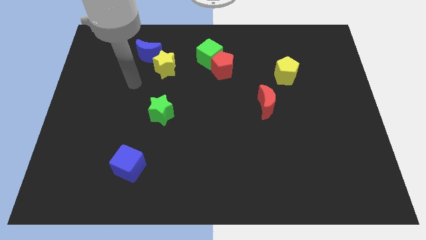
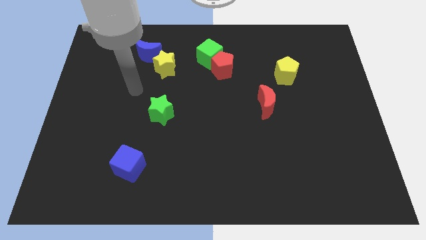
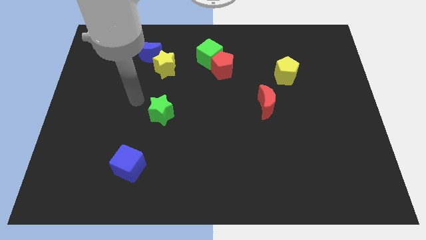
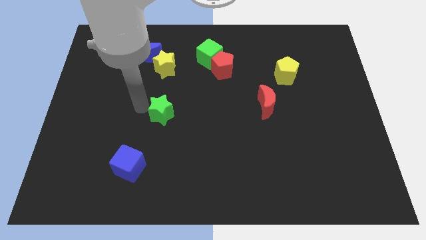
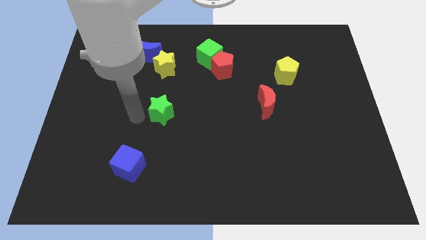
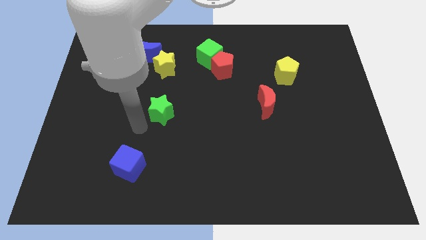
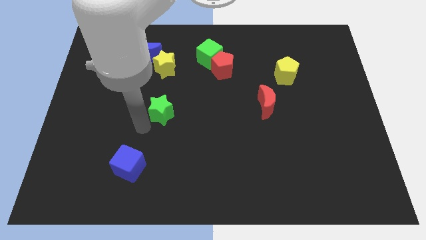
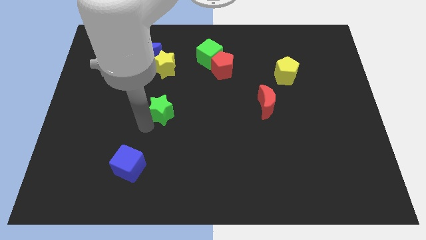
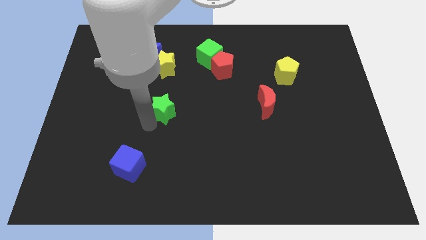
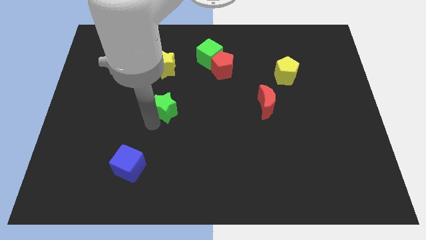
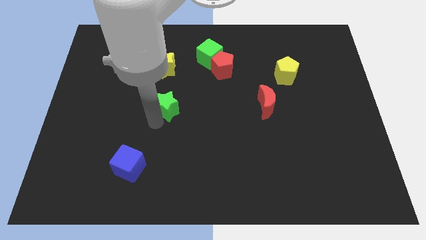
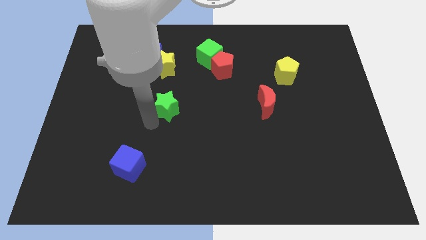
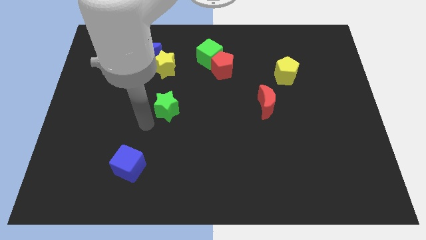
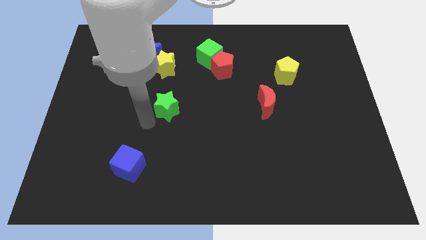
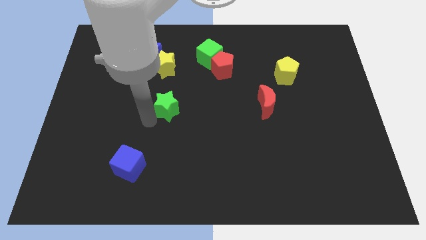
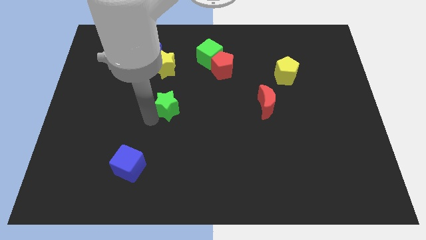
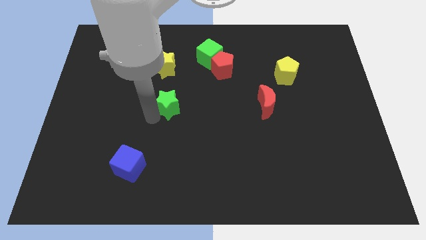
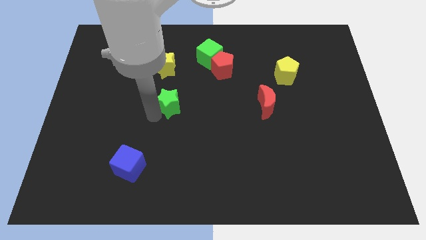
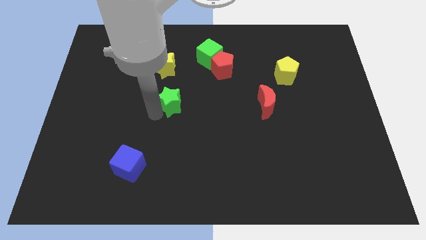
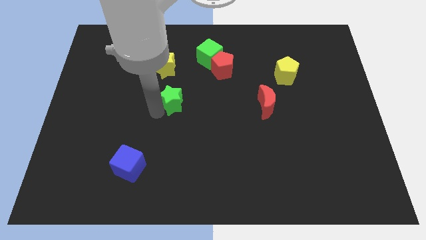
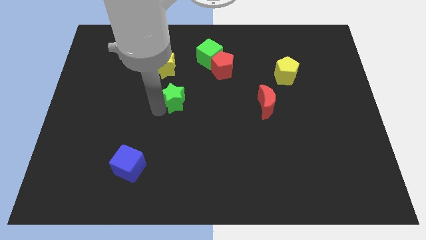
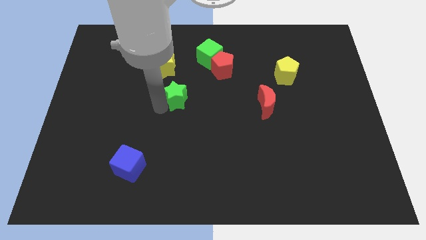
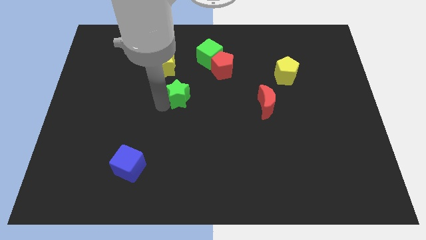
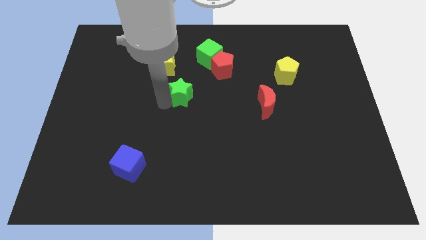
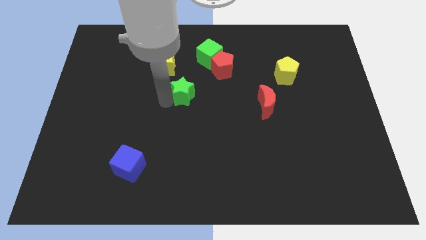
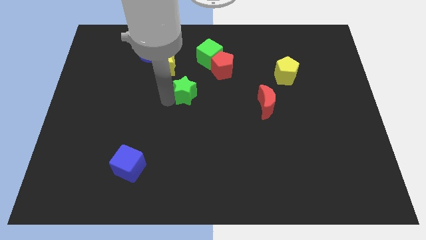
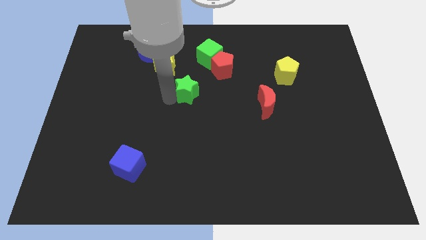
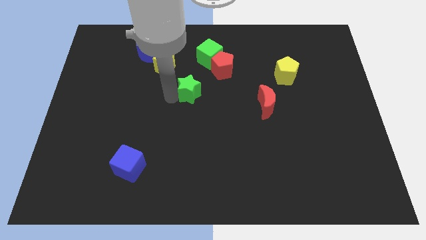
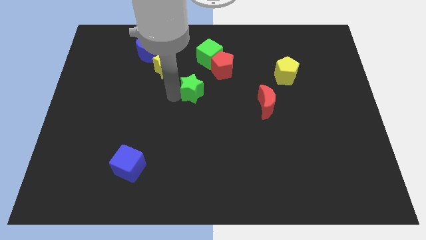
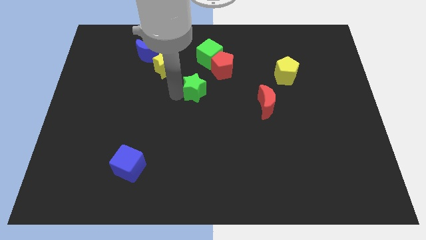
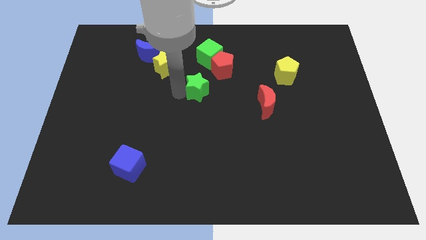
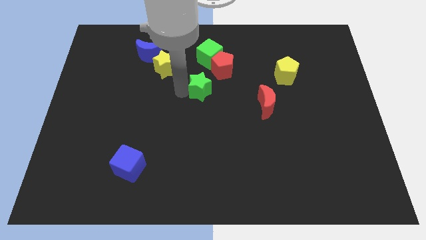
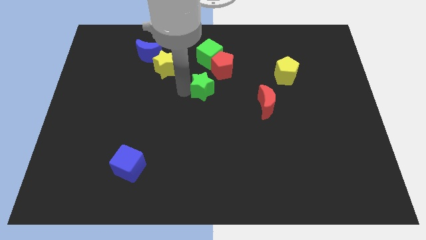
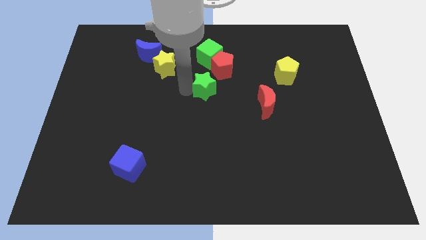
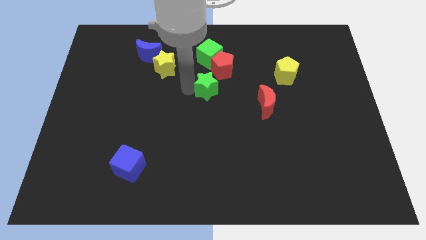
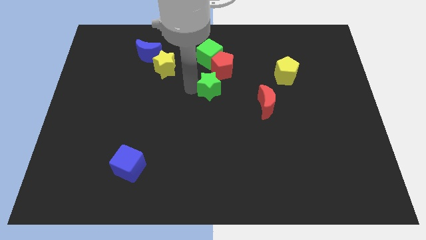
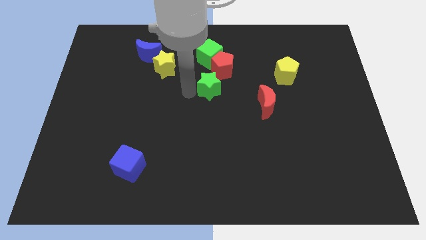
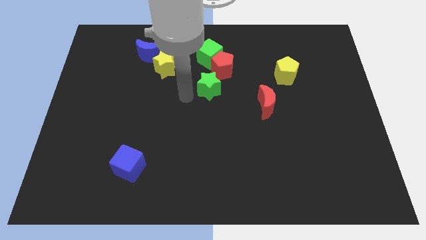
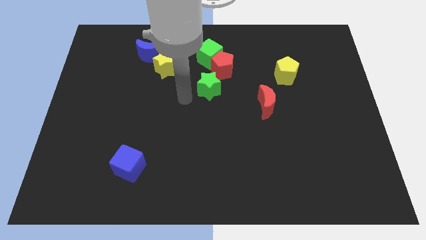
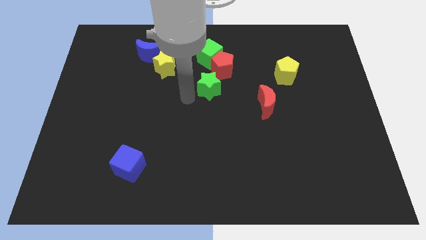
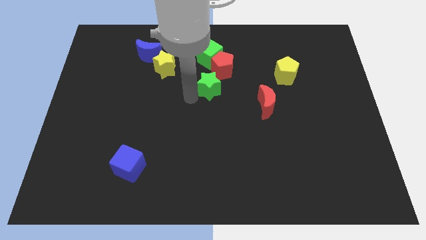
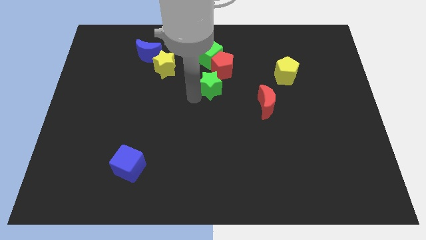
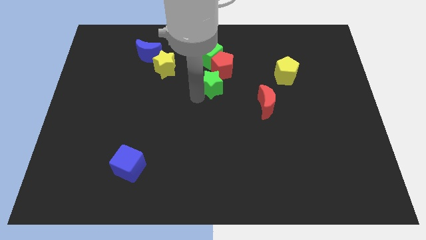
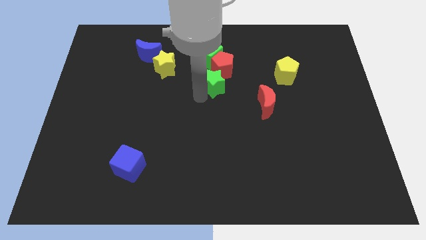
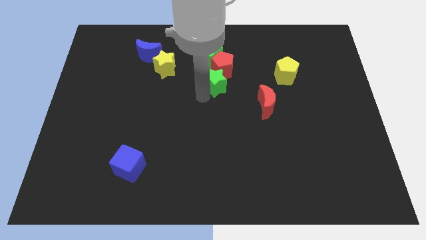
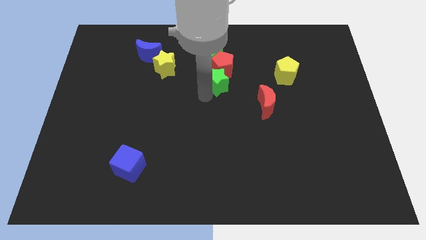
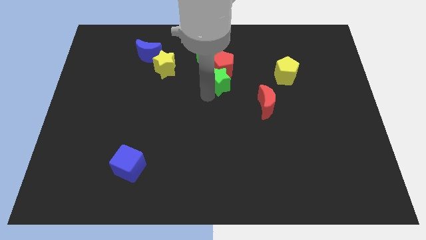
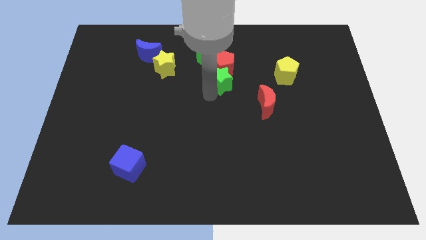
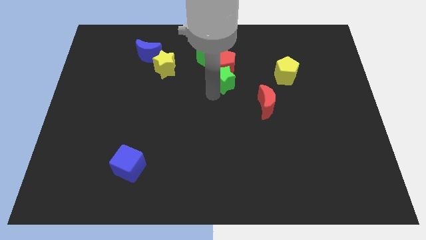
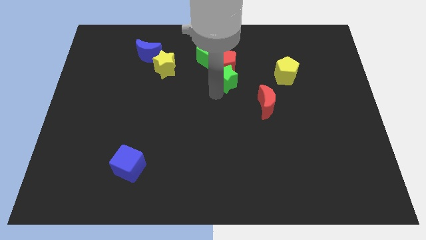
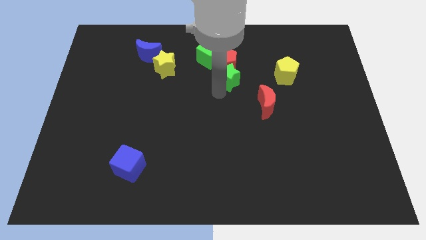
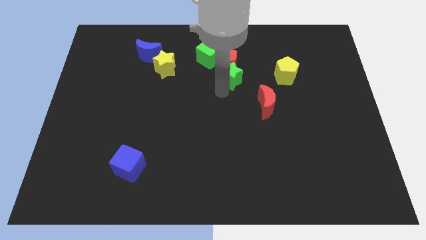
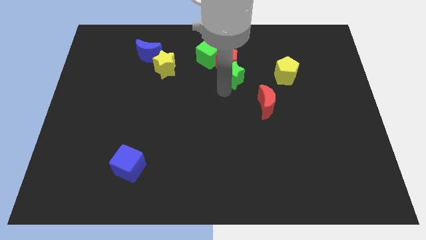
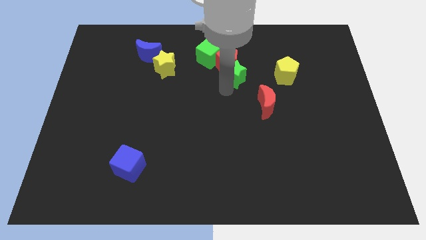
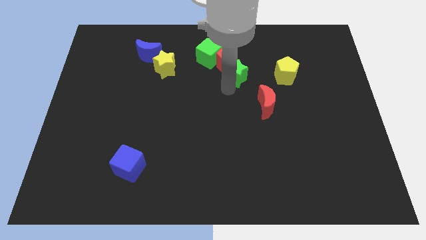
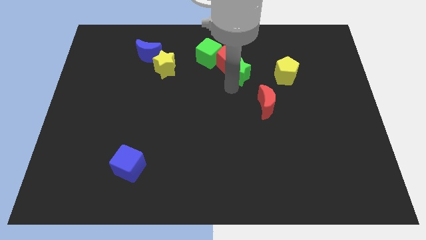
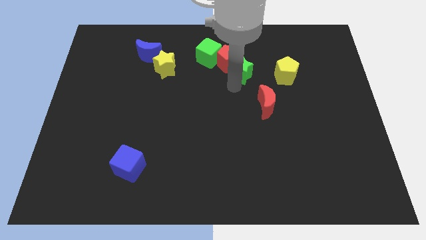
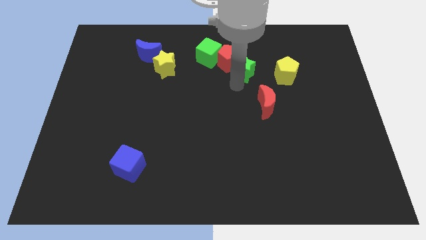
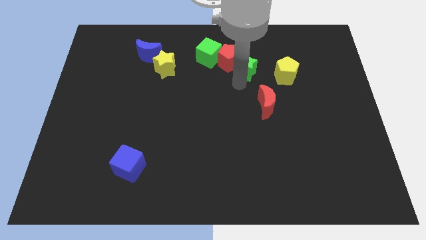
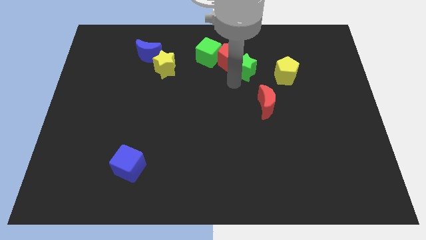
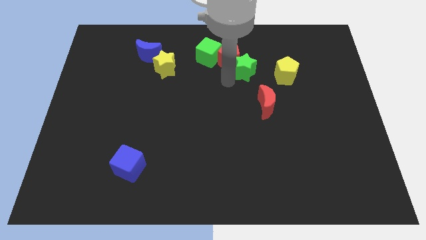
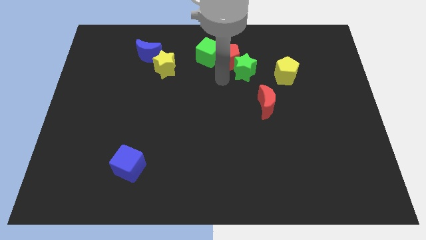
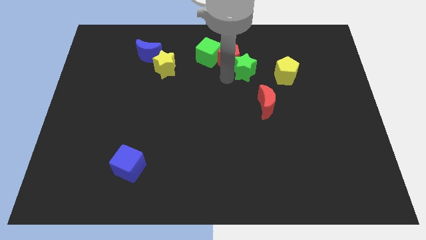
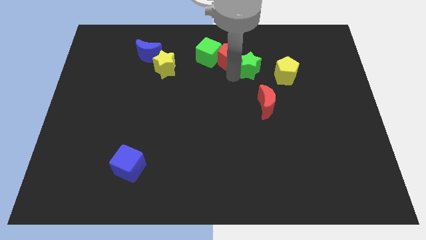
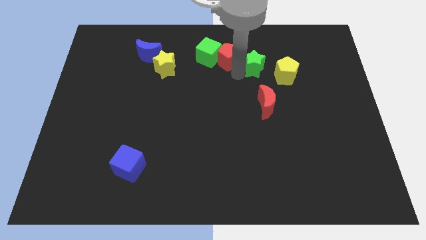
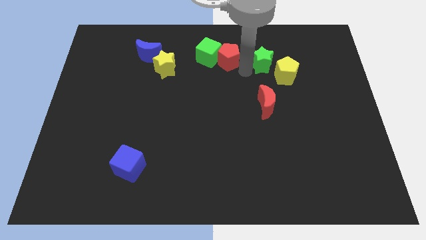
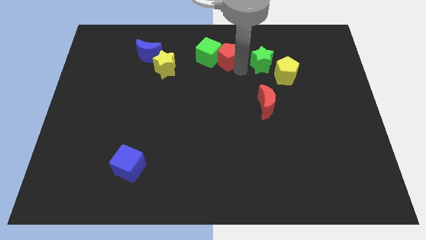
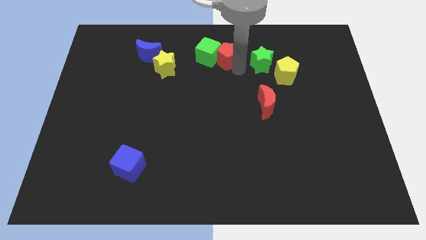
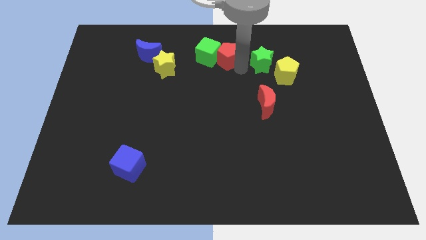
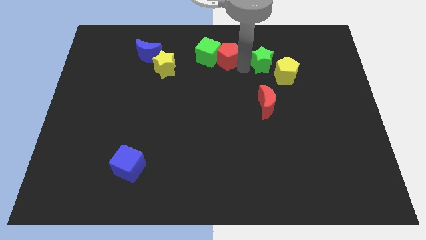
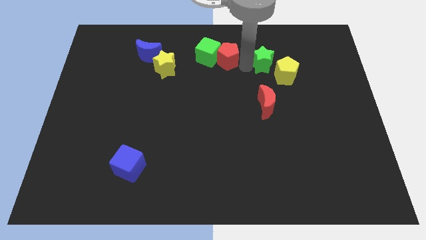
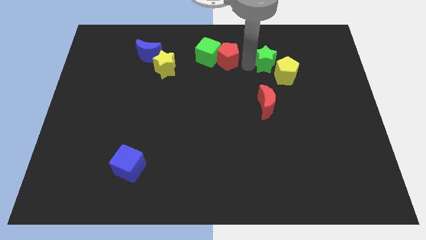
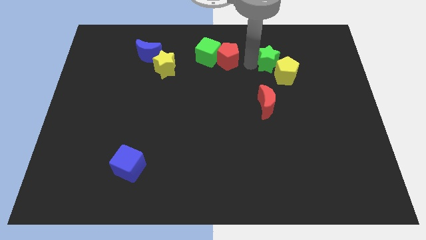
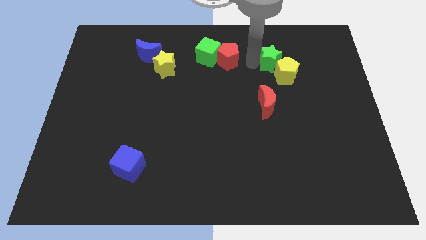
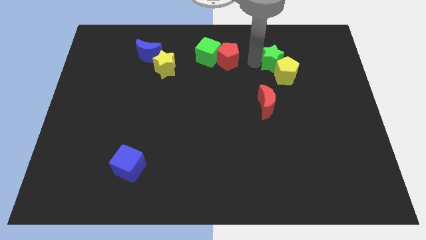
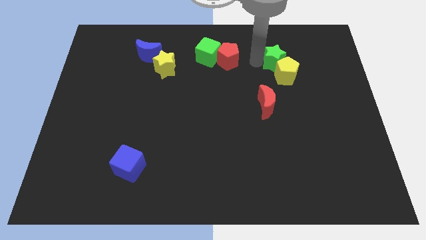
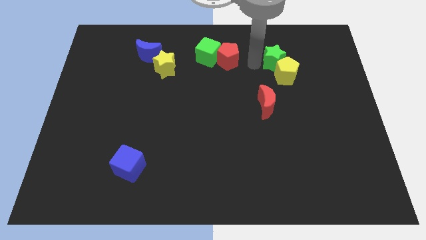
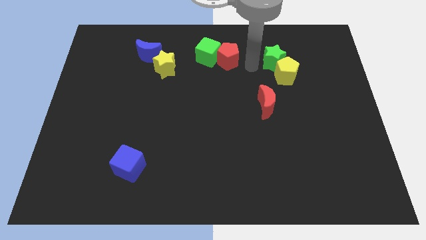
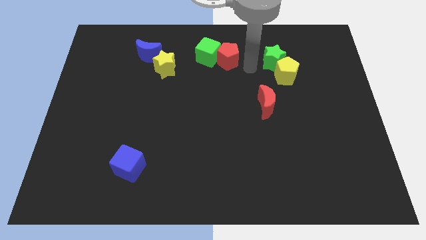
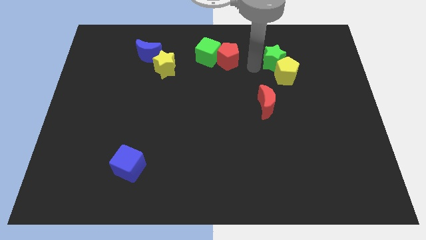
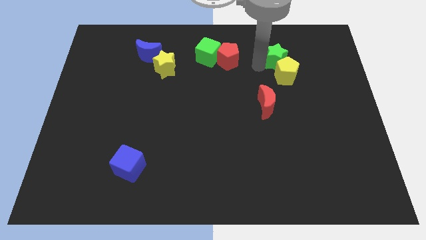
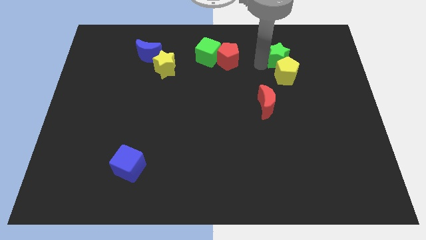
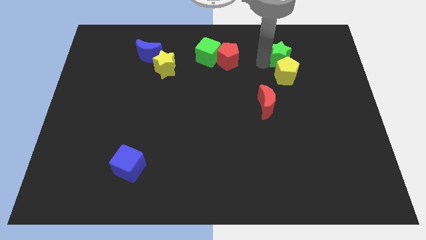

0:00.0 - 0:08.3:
move the green star to the top right side of the yellow pentagon

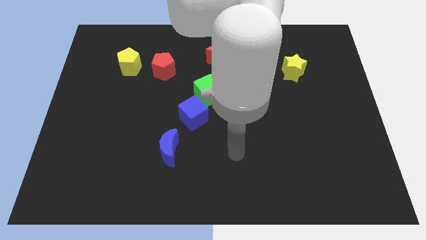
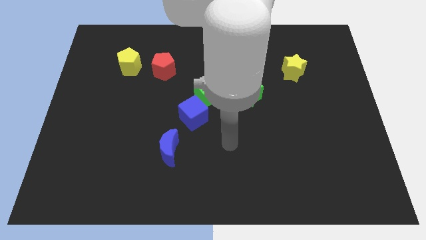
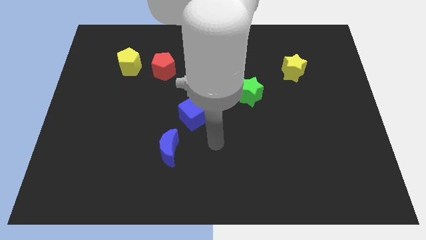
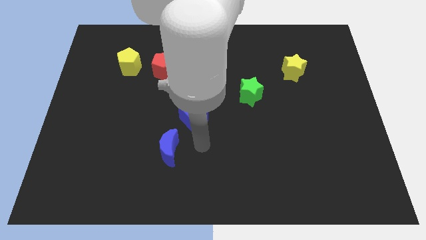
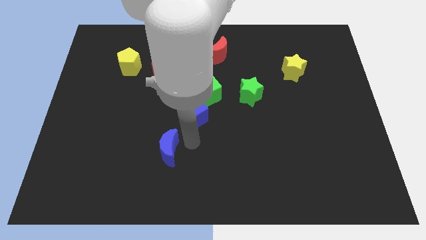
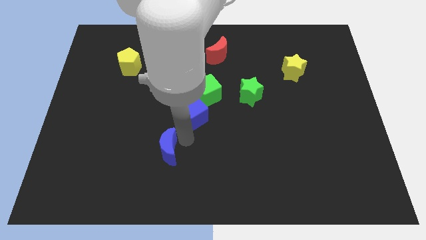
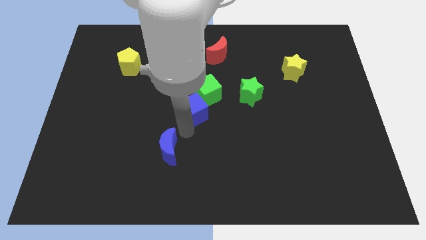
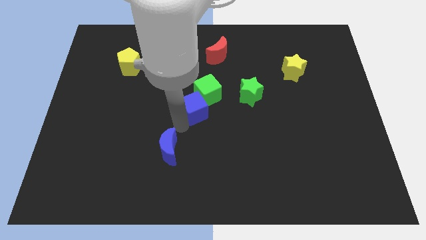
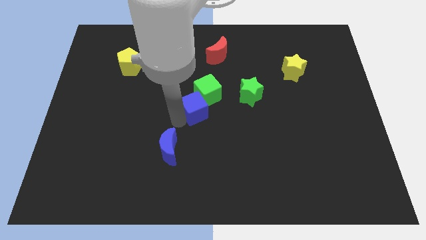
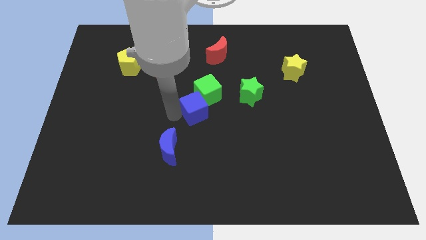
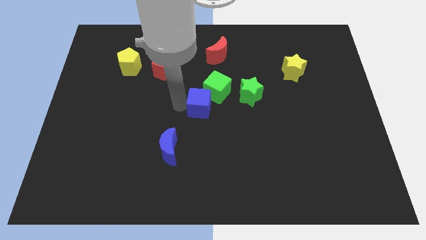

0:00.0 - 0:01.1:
put the green cube just right of the blue cube
